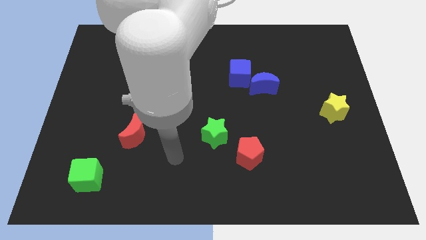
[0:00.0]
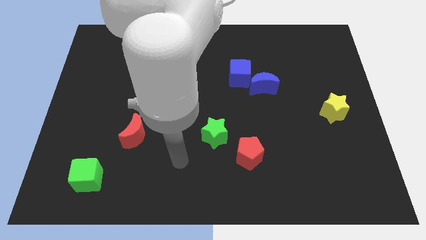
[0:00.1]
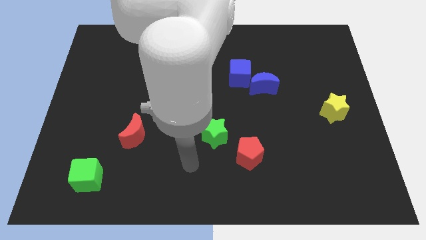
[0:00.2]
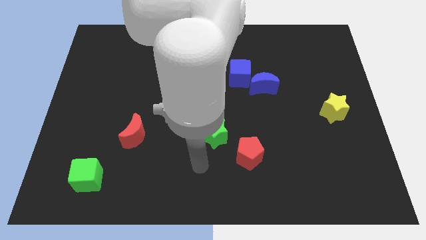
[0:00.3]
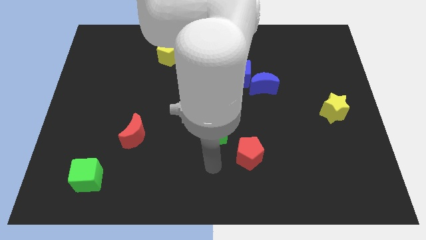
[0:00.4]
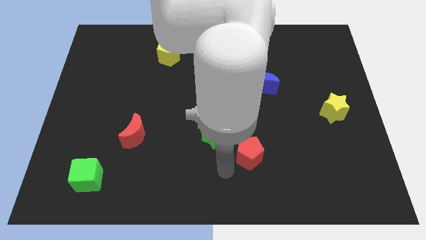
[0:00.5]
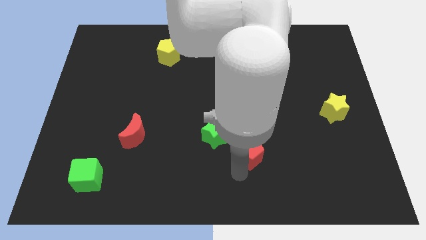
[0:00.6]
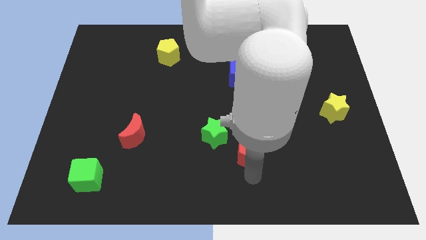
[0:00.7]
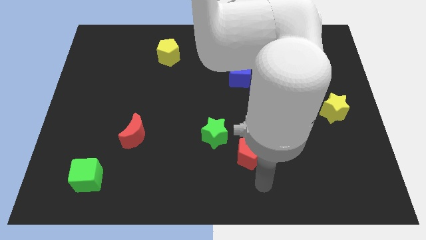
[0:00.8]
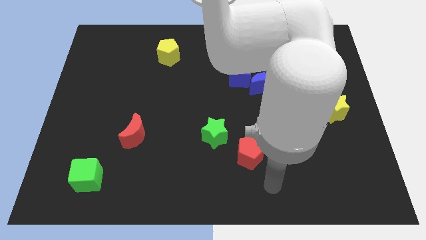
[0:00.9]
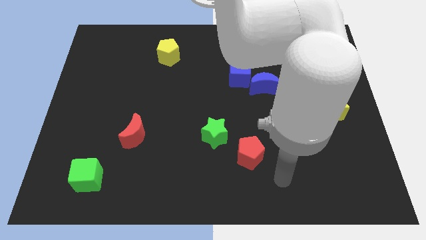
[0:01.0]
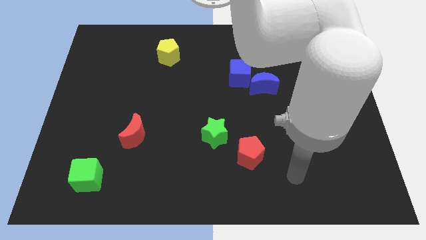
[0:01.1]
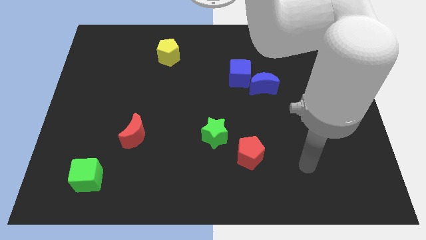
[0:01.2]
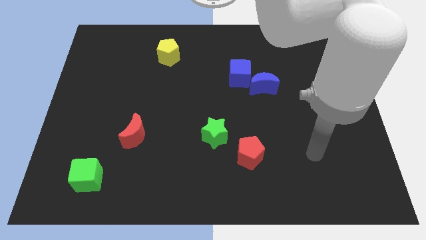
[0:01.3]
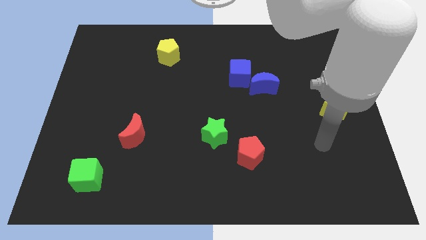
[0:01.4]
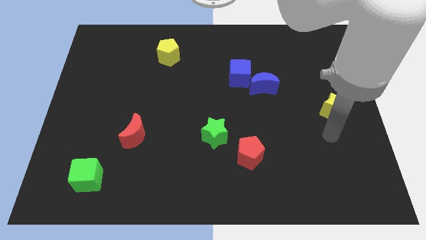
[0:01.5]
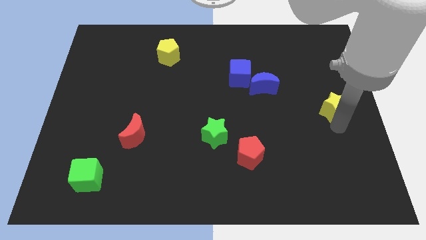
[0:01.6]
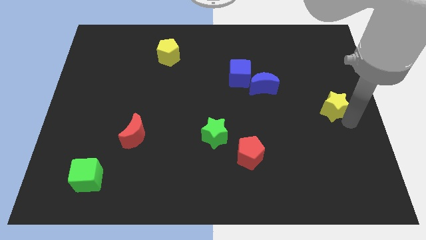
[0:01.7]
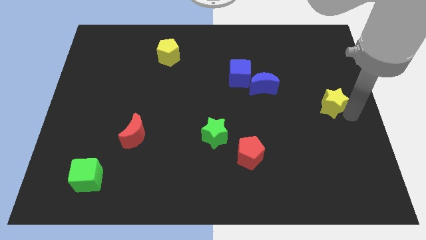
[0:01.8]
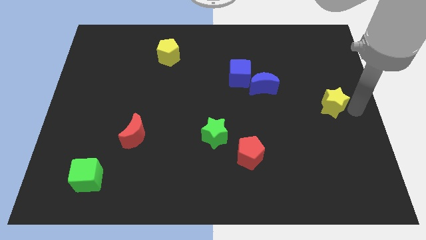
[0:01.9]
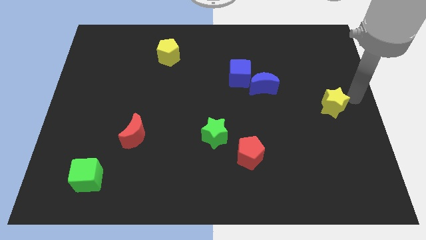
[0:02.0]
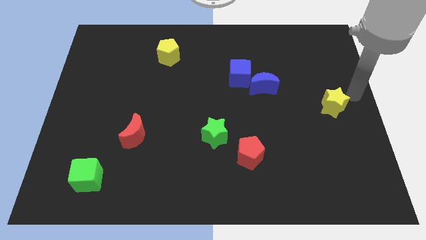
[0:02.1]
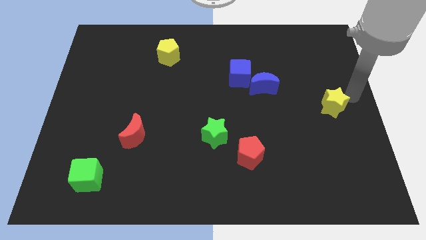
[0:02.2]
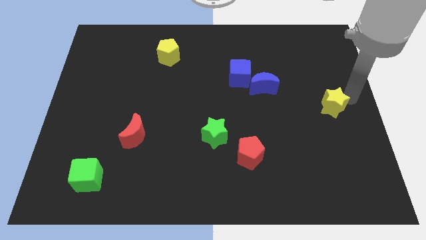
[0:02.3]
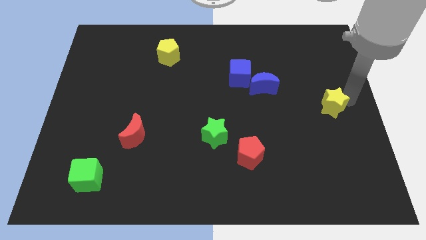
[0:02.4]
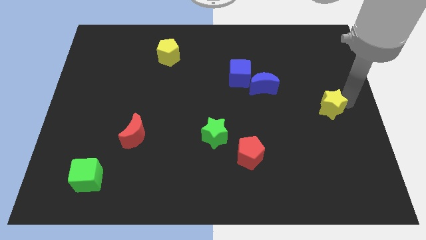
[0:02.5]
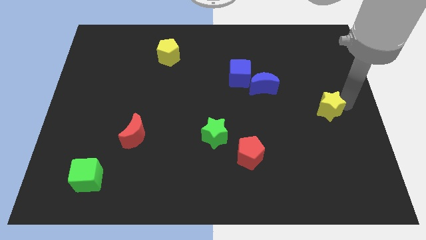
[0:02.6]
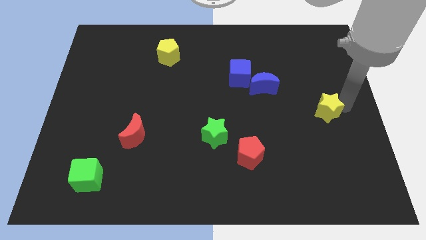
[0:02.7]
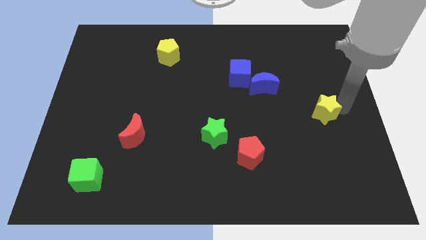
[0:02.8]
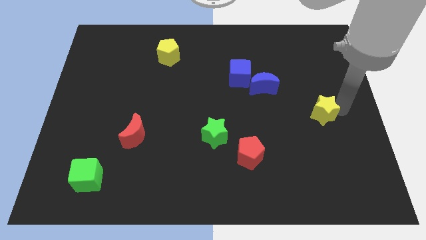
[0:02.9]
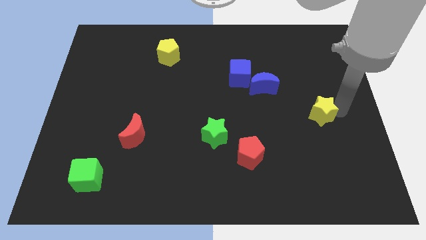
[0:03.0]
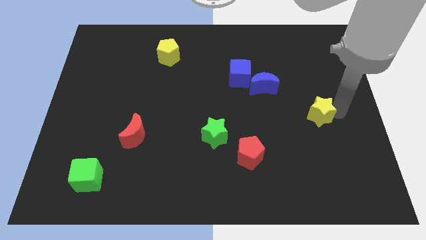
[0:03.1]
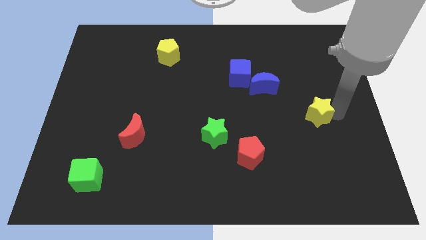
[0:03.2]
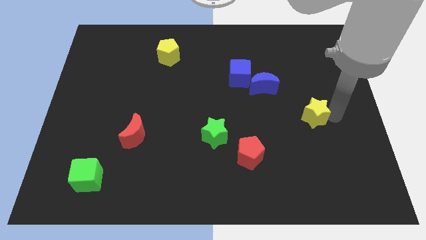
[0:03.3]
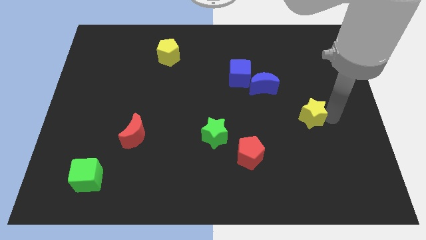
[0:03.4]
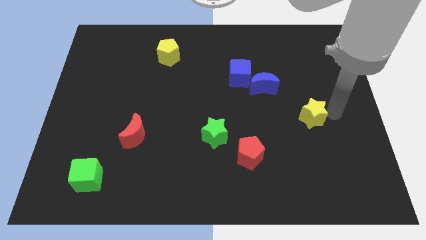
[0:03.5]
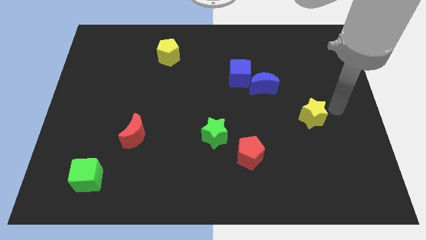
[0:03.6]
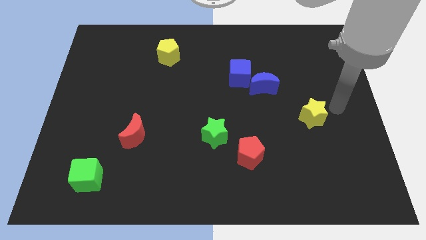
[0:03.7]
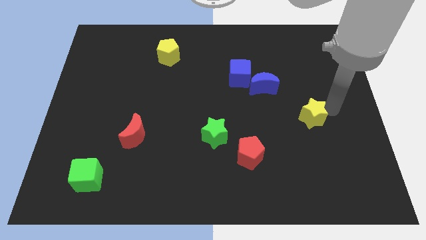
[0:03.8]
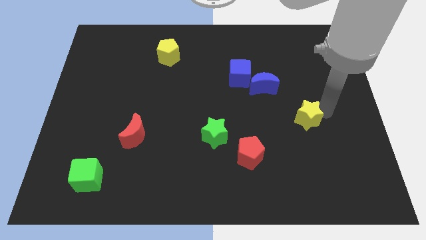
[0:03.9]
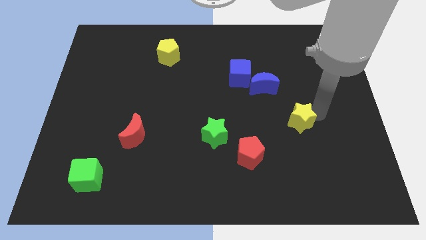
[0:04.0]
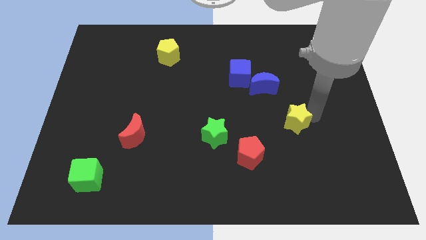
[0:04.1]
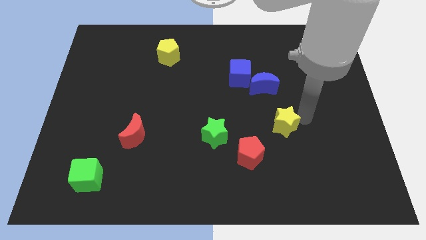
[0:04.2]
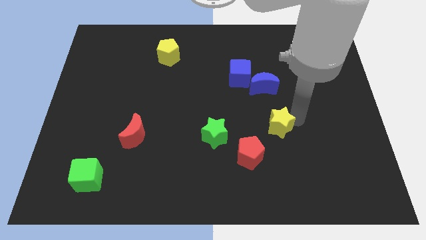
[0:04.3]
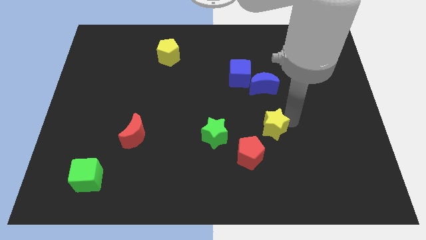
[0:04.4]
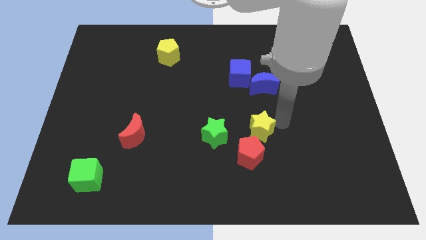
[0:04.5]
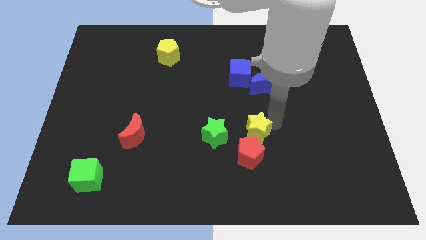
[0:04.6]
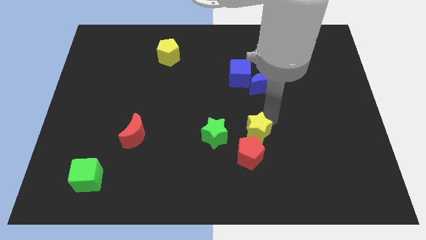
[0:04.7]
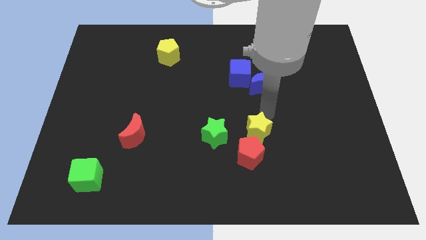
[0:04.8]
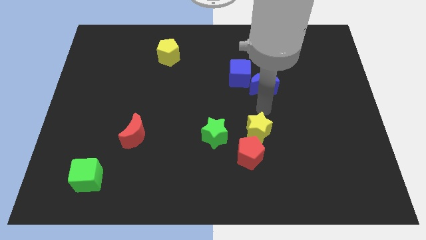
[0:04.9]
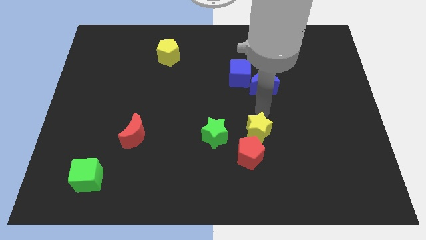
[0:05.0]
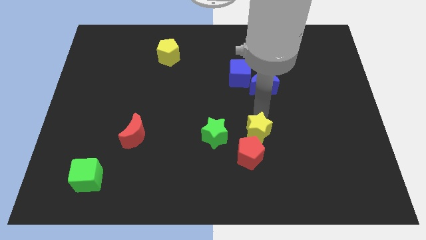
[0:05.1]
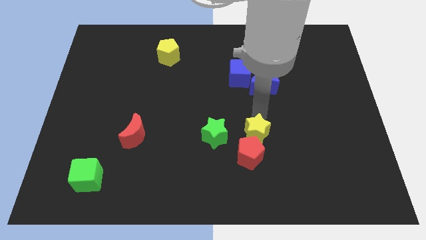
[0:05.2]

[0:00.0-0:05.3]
slide the yellow star close to the red pentagon

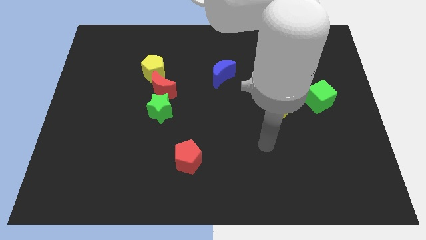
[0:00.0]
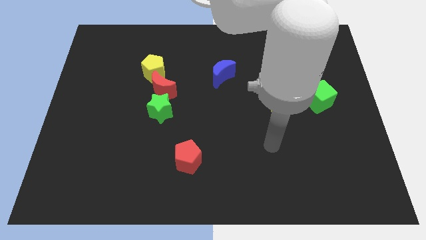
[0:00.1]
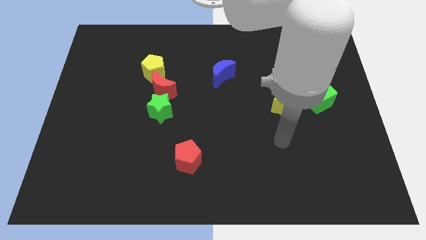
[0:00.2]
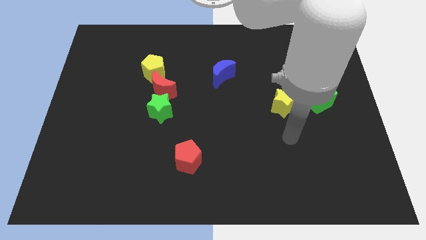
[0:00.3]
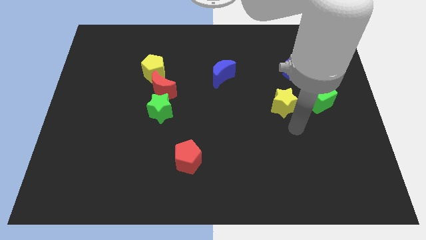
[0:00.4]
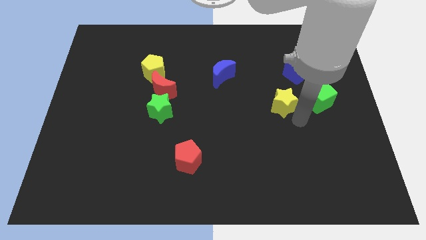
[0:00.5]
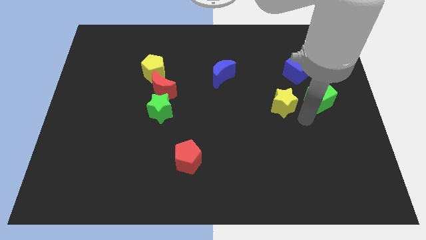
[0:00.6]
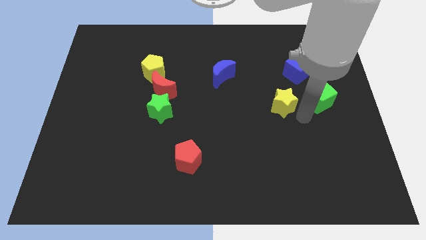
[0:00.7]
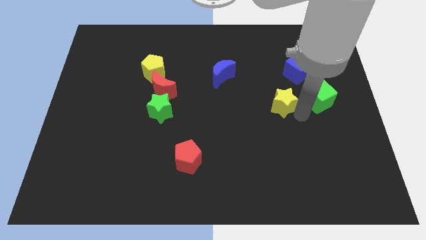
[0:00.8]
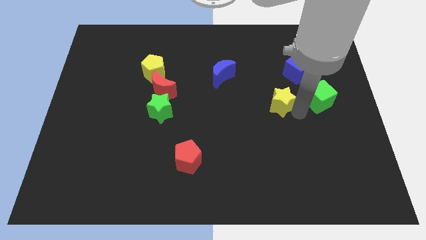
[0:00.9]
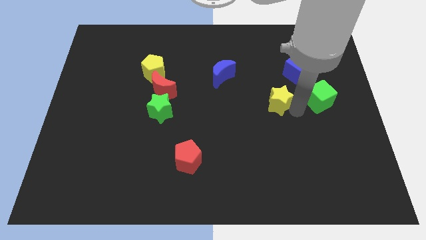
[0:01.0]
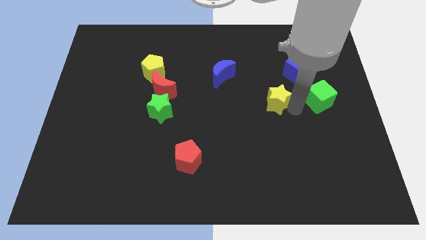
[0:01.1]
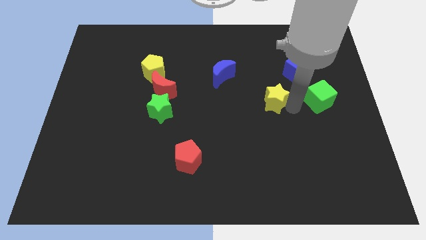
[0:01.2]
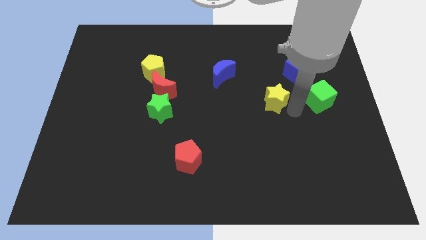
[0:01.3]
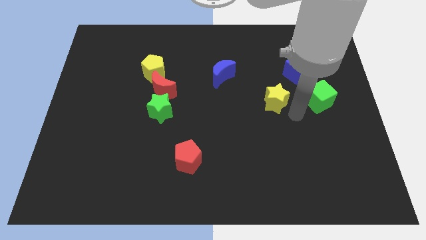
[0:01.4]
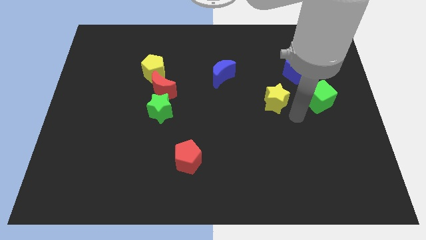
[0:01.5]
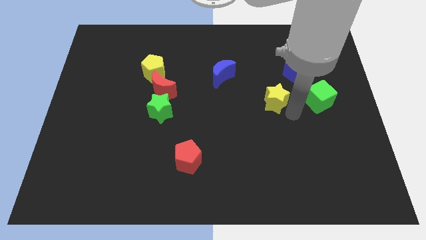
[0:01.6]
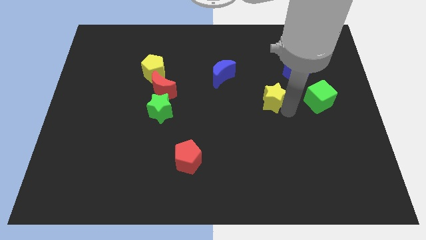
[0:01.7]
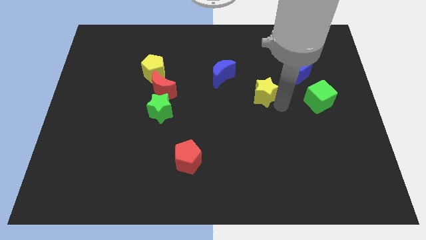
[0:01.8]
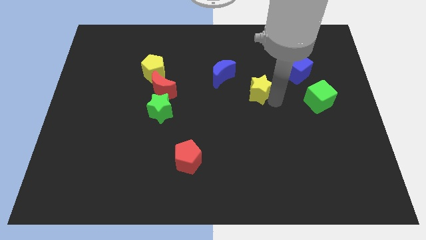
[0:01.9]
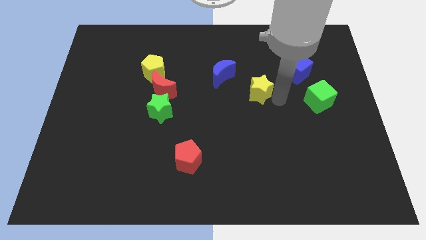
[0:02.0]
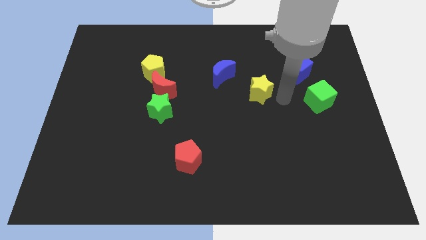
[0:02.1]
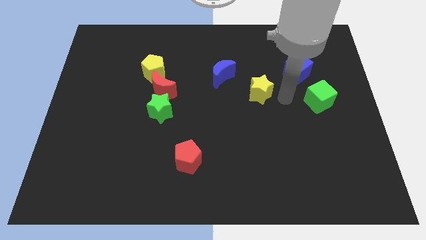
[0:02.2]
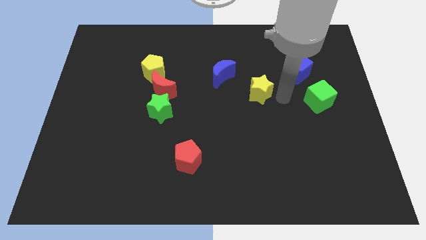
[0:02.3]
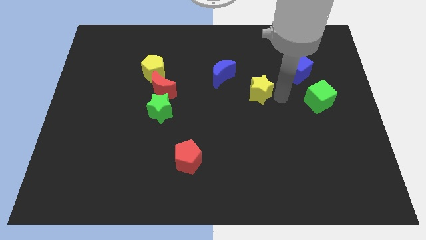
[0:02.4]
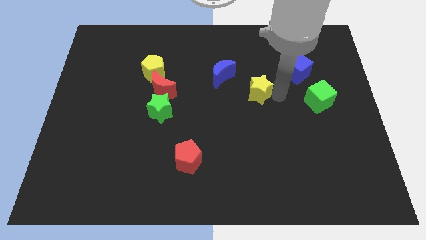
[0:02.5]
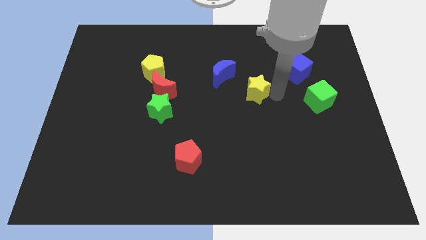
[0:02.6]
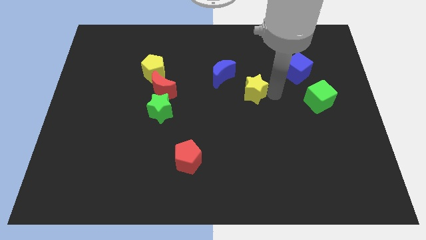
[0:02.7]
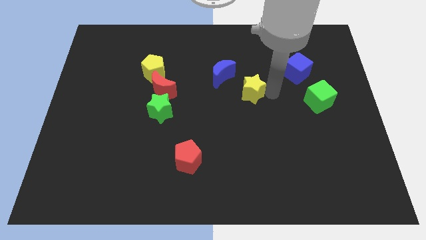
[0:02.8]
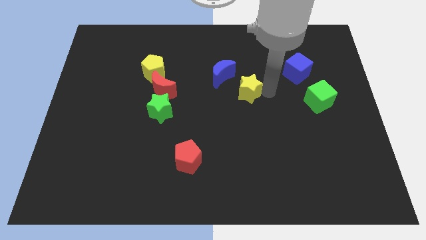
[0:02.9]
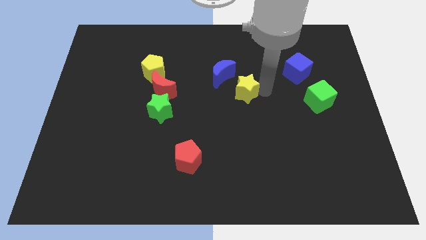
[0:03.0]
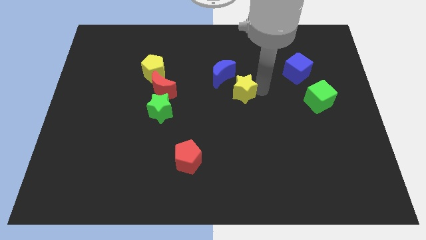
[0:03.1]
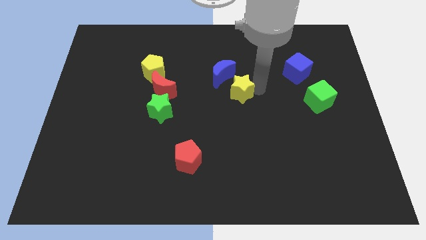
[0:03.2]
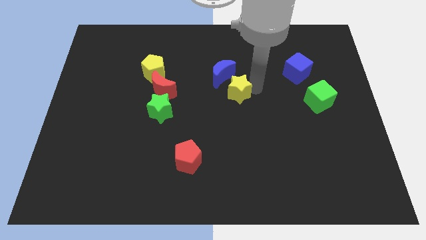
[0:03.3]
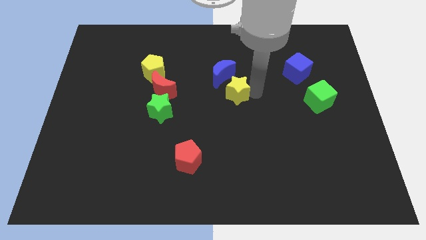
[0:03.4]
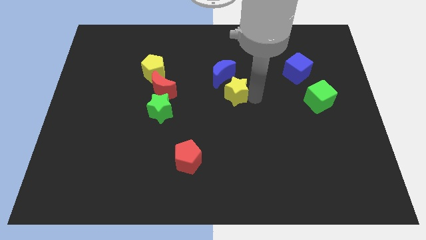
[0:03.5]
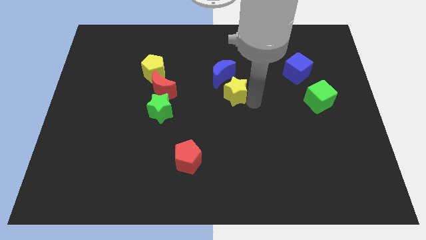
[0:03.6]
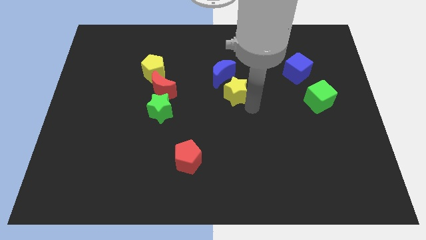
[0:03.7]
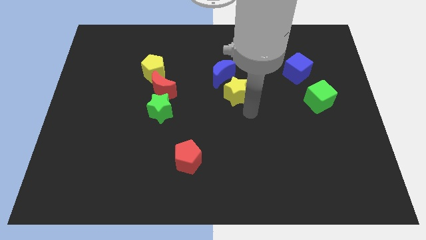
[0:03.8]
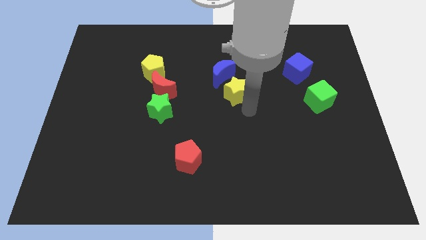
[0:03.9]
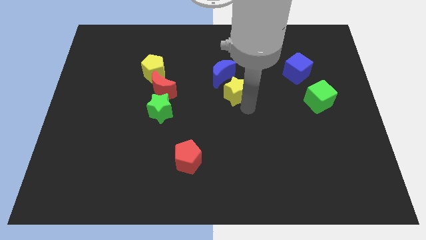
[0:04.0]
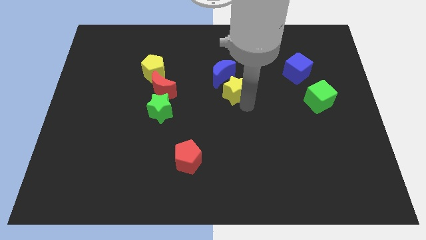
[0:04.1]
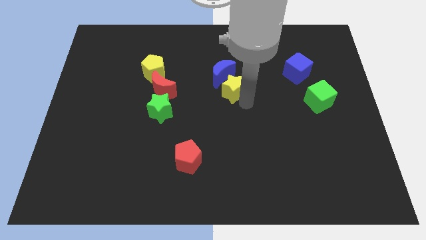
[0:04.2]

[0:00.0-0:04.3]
put the yellow star close to the blue moon
